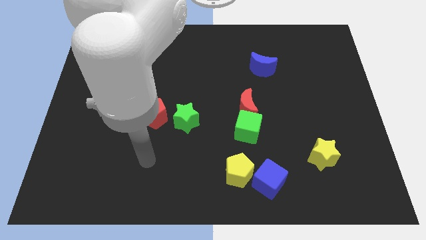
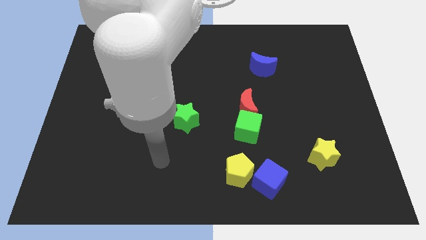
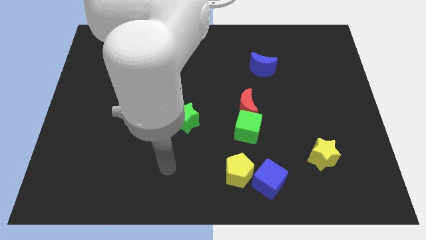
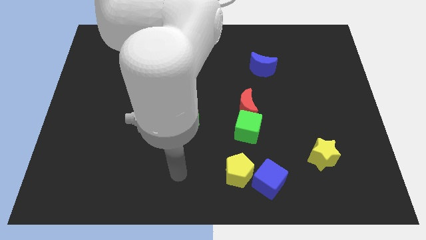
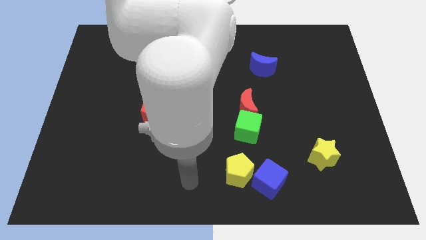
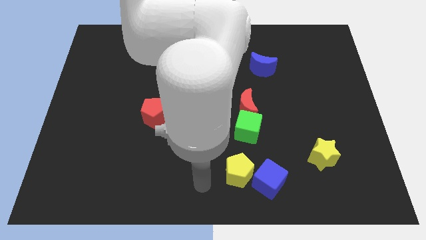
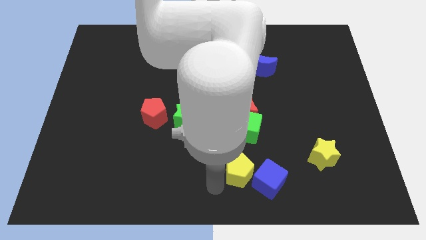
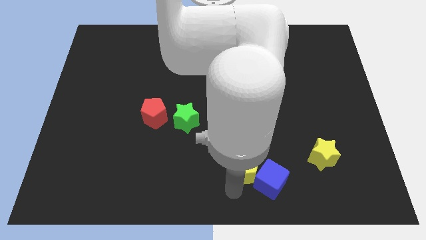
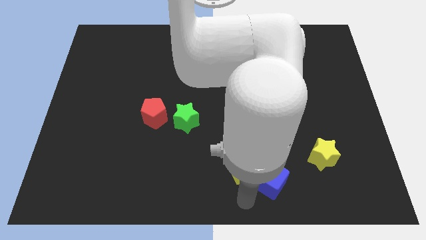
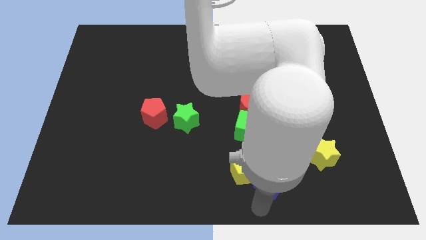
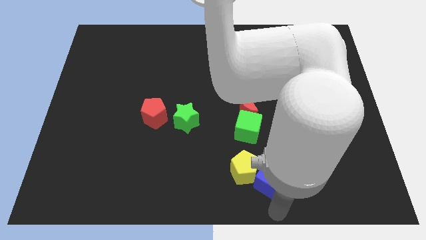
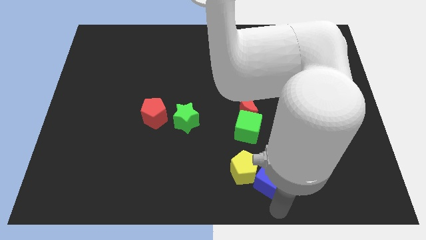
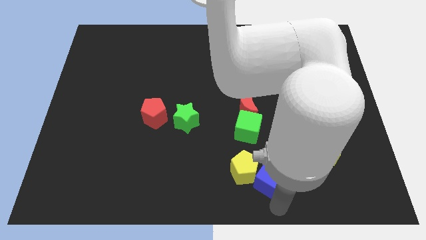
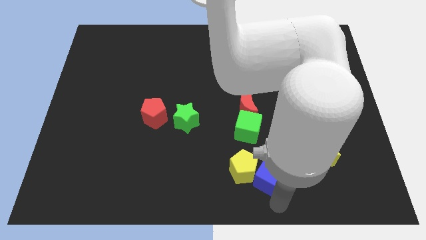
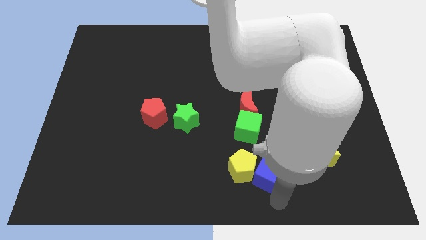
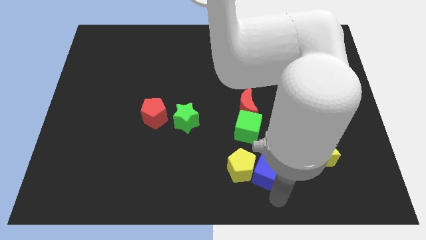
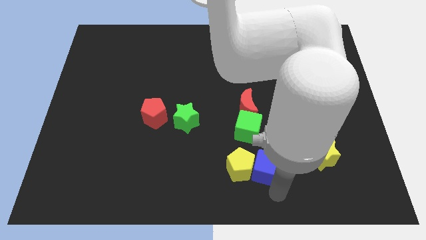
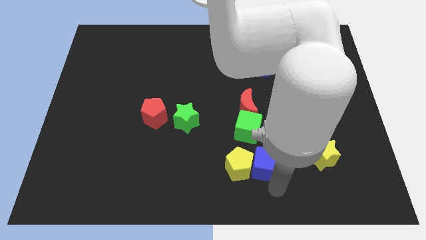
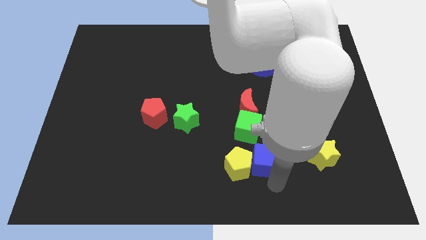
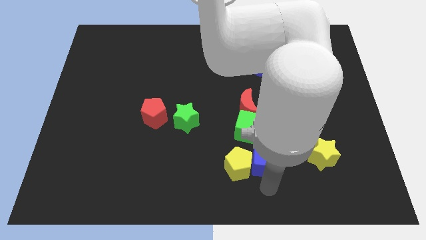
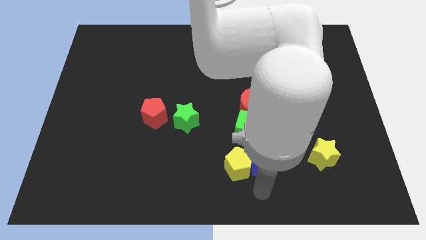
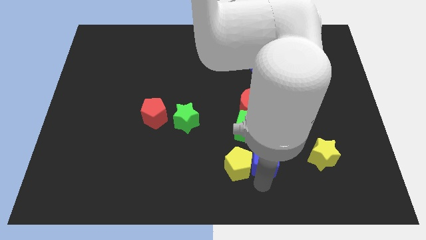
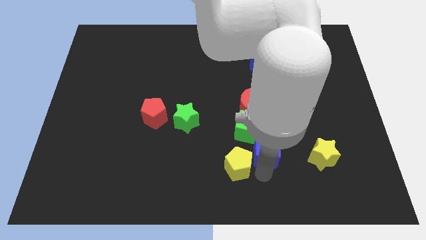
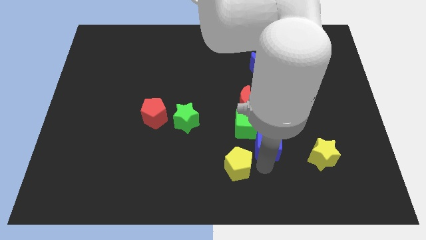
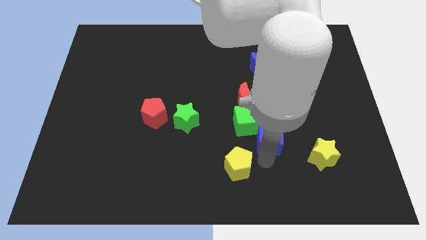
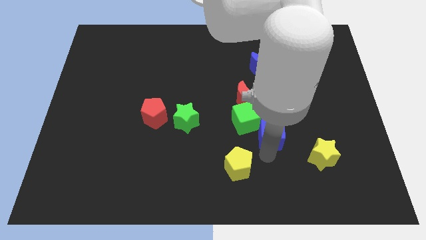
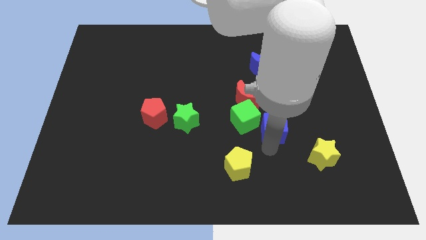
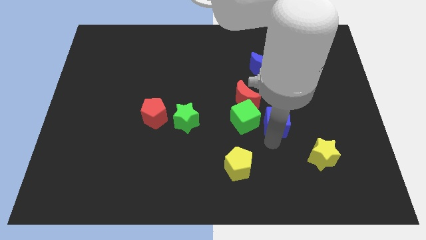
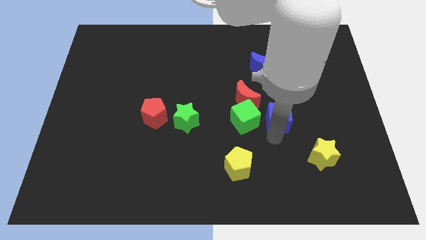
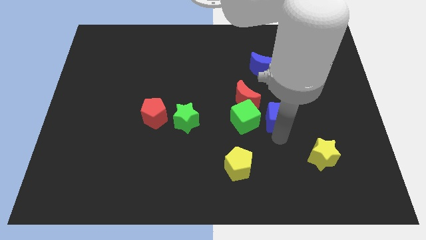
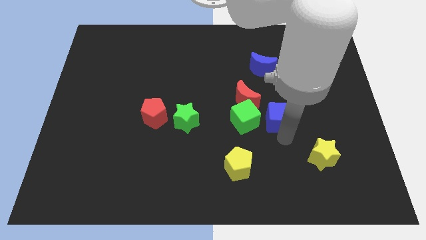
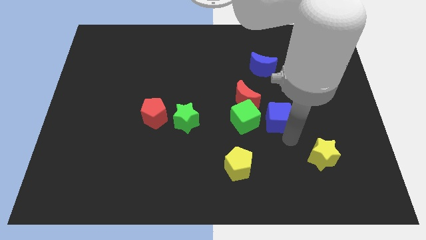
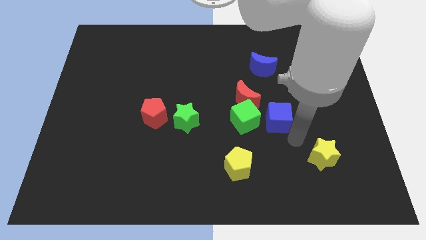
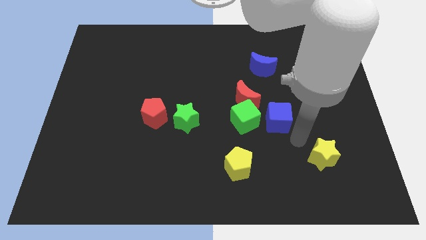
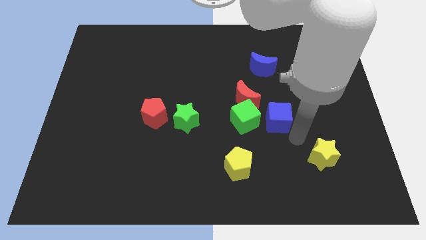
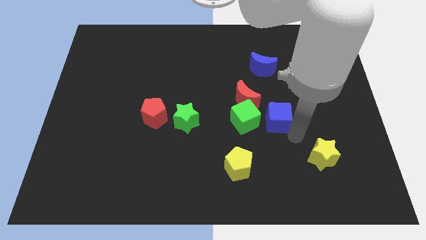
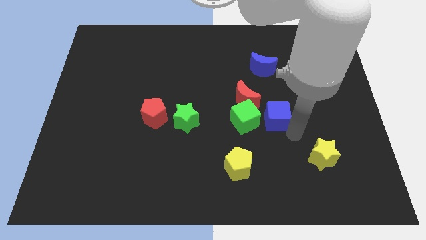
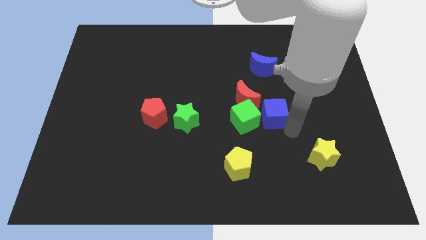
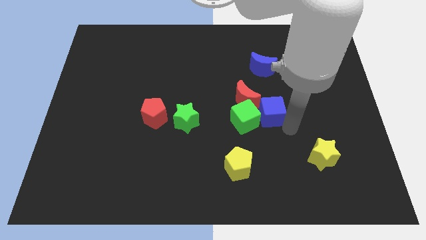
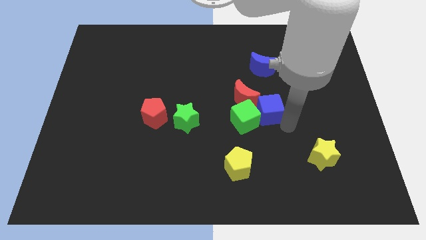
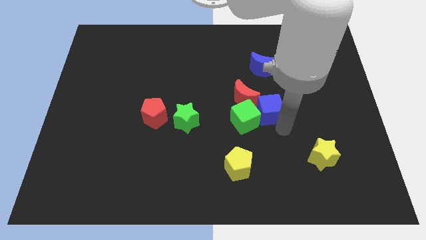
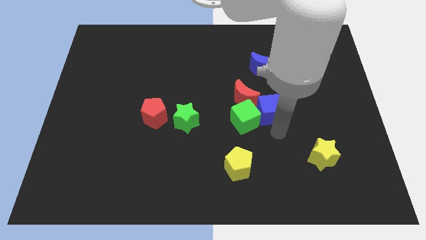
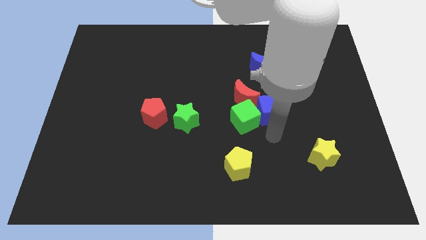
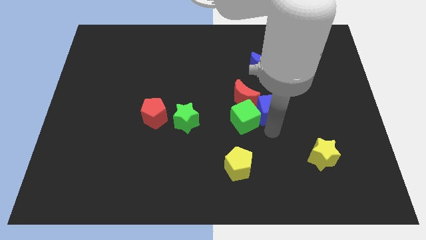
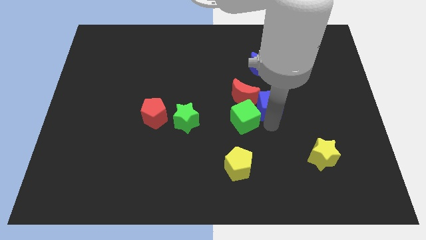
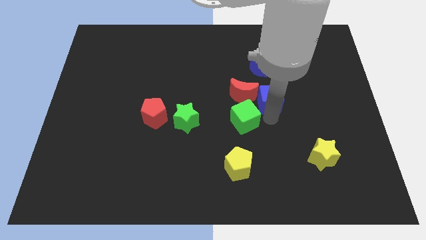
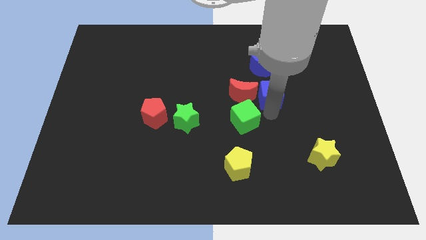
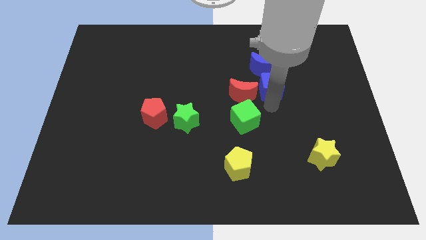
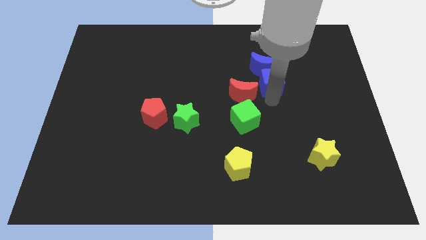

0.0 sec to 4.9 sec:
push the blue cube close to the blue moon

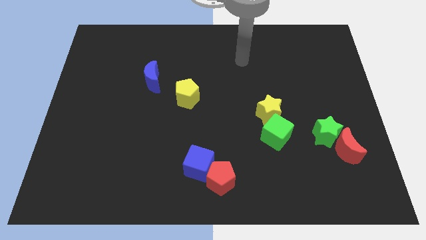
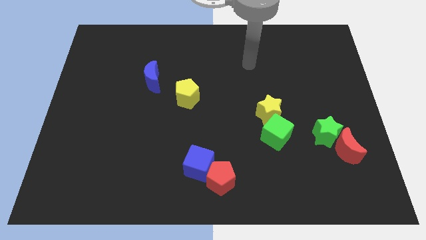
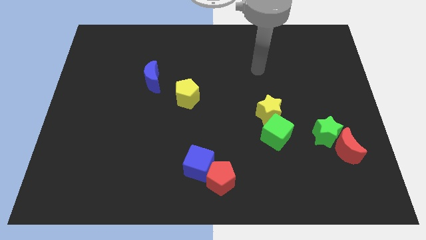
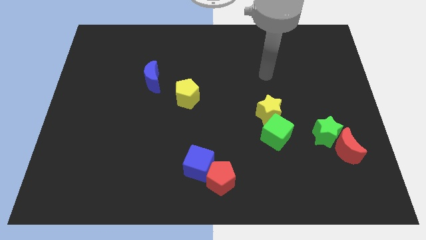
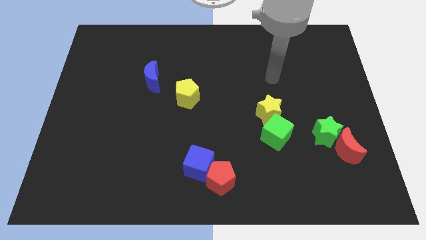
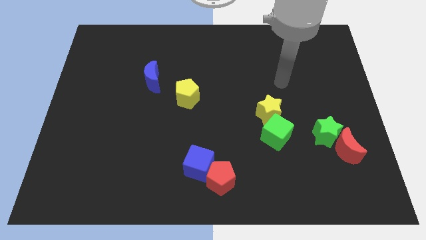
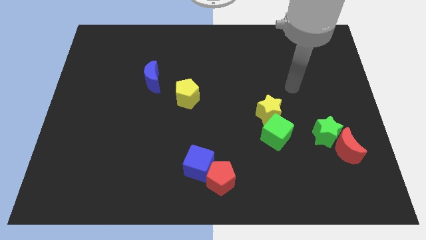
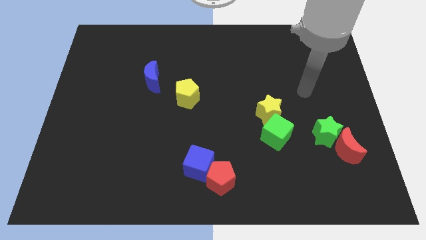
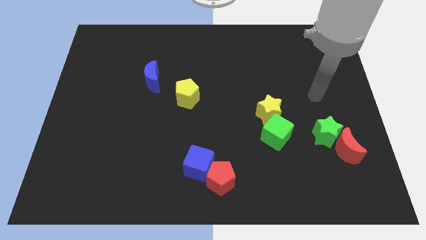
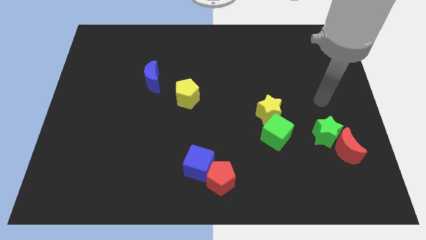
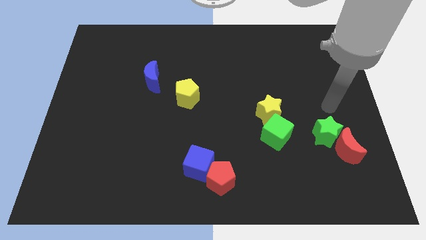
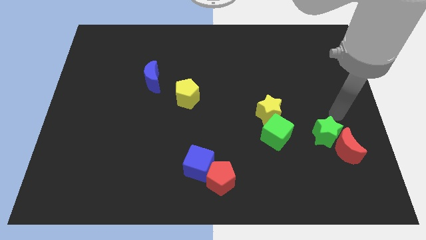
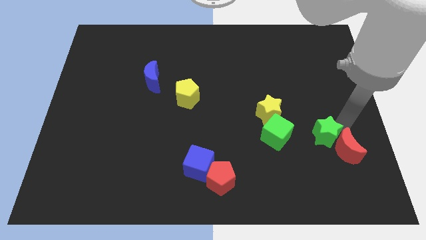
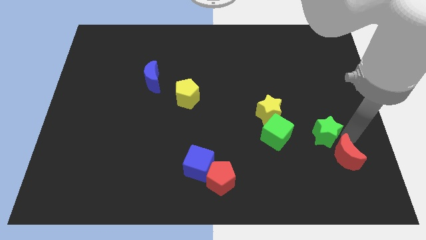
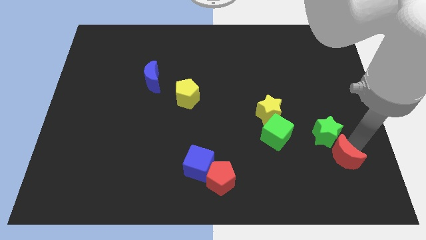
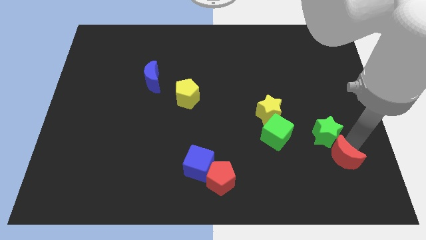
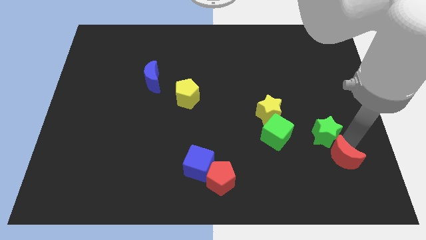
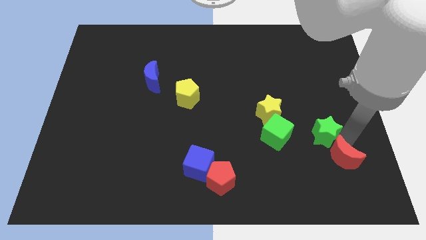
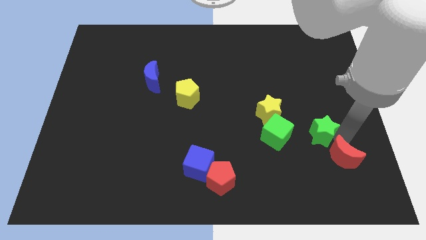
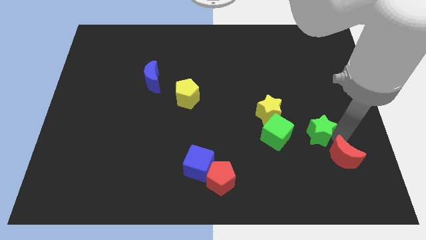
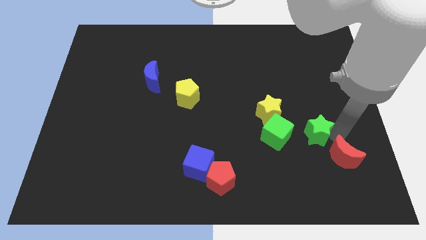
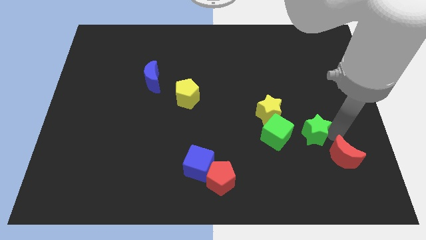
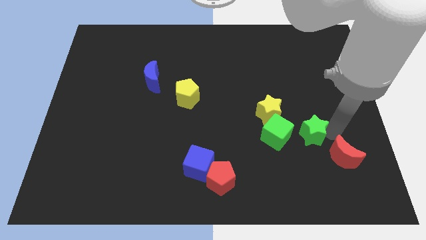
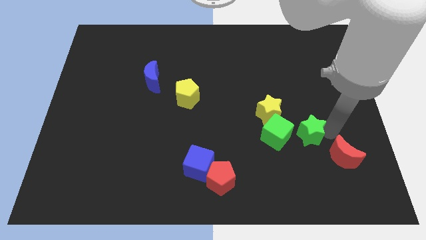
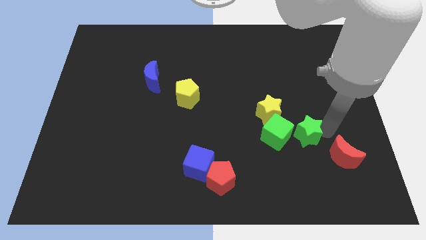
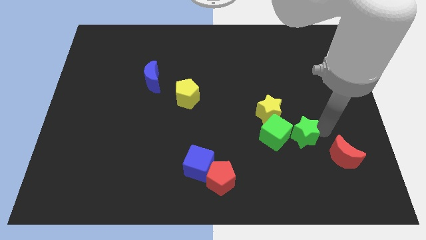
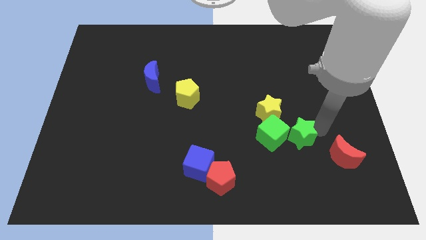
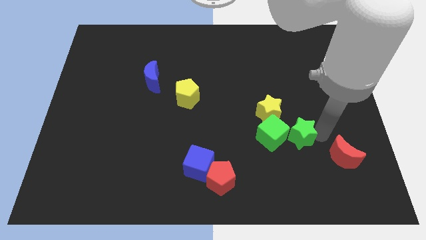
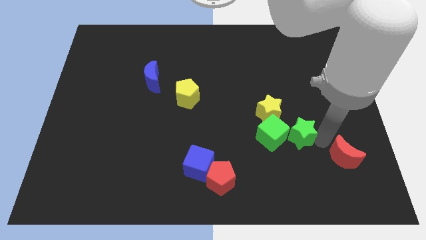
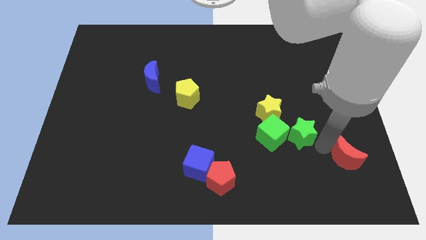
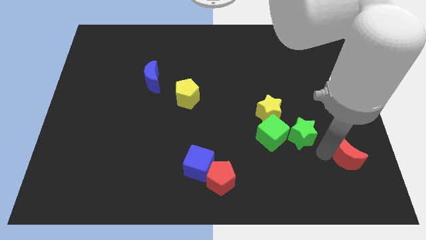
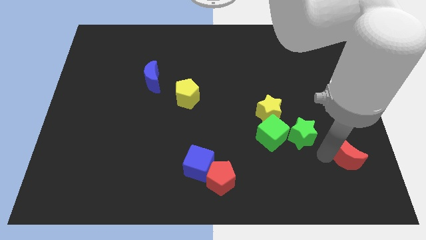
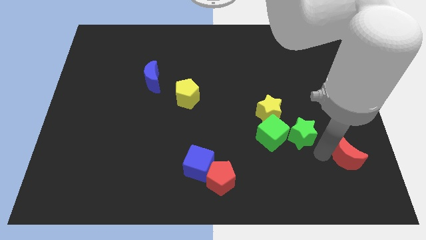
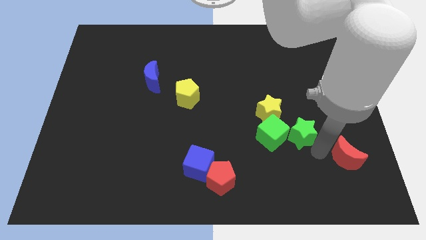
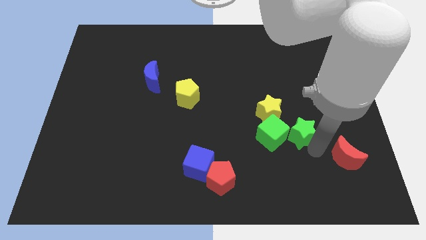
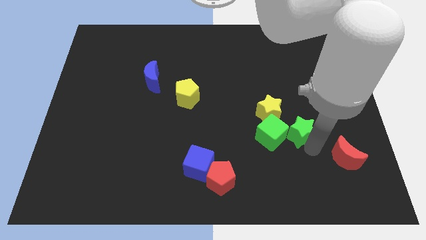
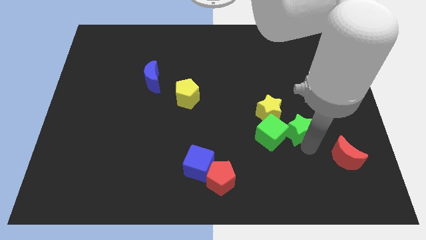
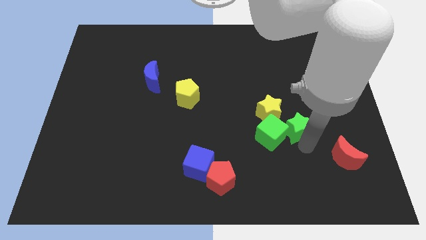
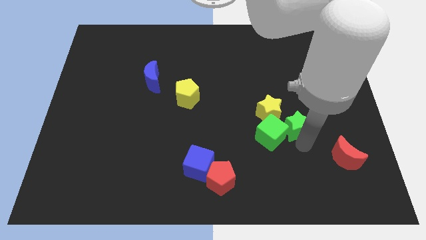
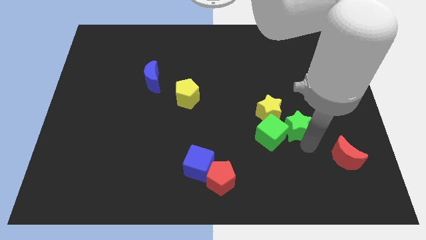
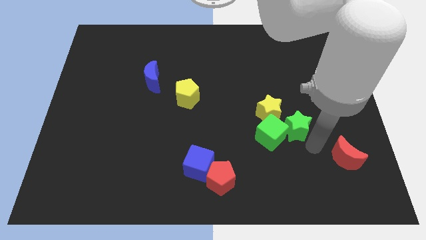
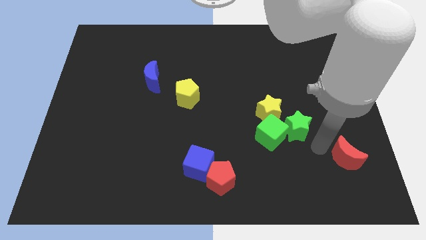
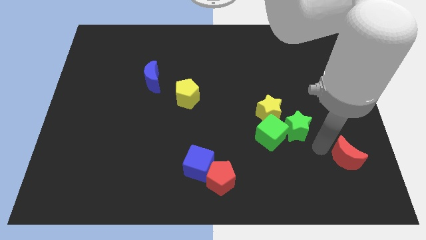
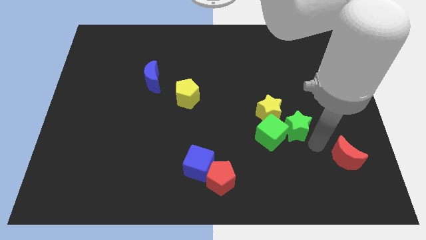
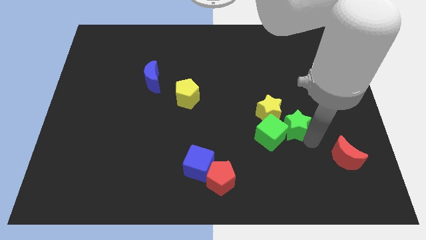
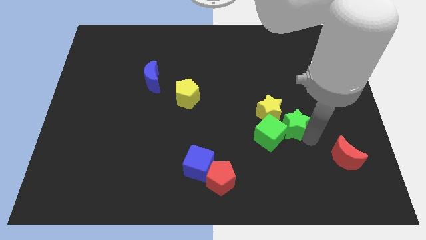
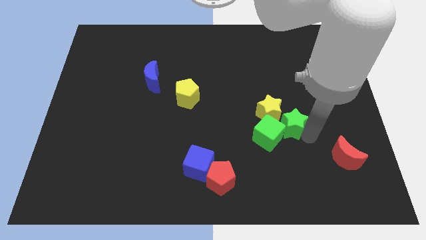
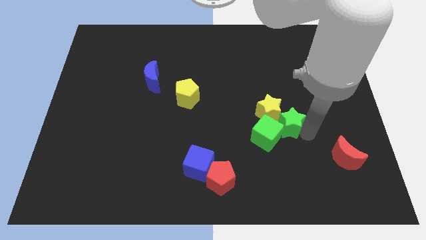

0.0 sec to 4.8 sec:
move the green star to the yellow star
